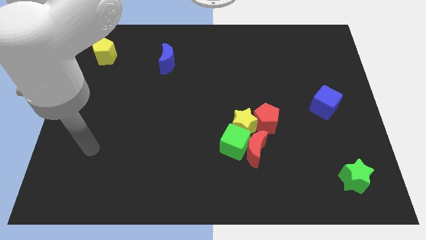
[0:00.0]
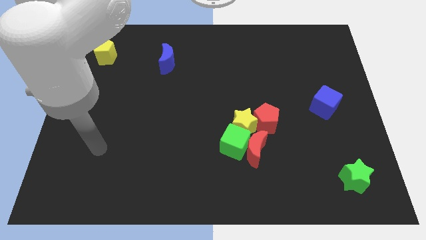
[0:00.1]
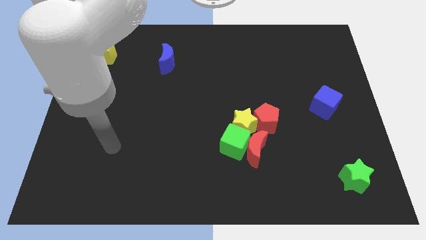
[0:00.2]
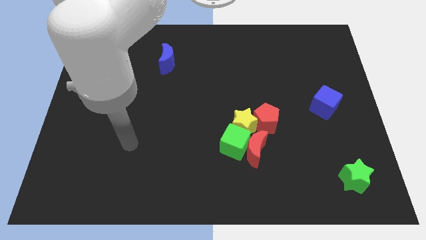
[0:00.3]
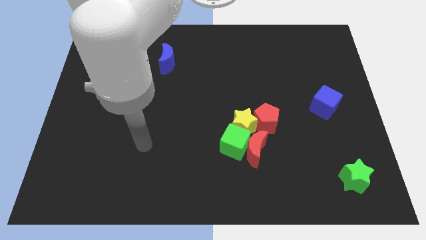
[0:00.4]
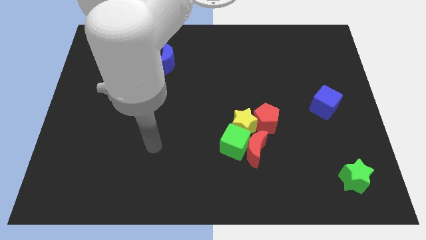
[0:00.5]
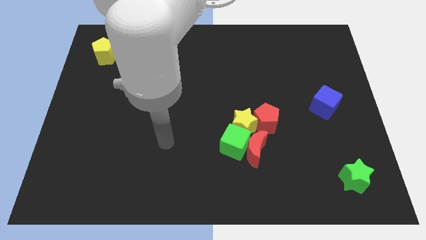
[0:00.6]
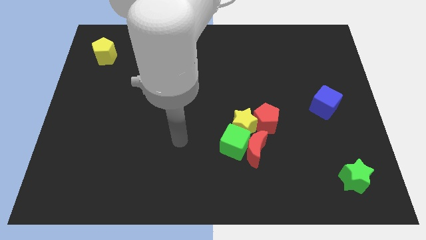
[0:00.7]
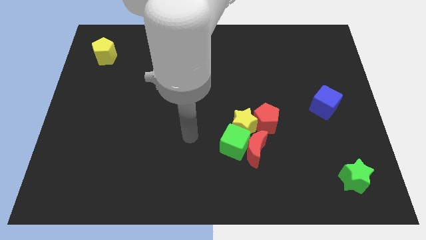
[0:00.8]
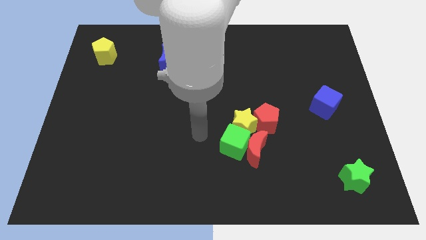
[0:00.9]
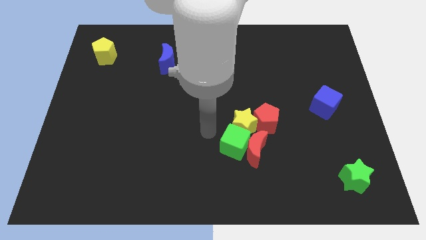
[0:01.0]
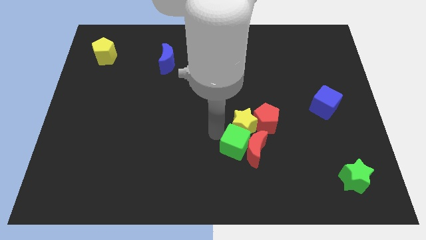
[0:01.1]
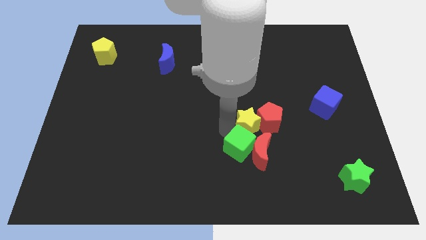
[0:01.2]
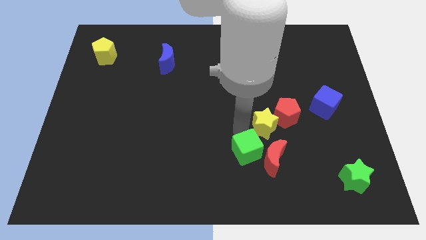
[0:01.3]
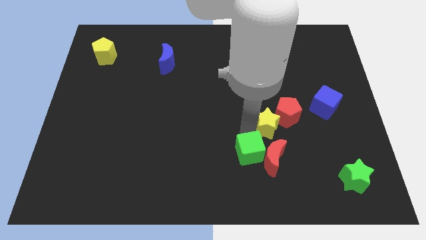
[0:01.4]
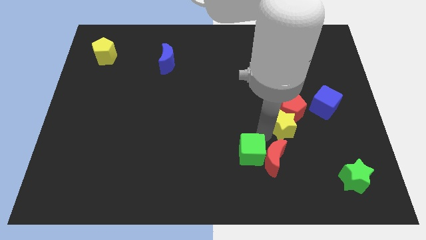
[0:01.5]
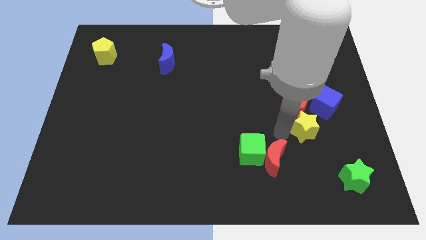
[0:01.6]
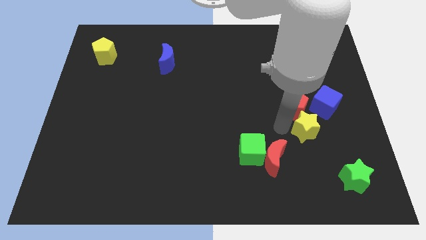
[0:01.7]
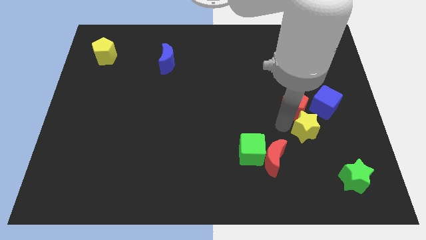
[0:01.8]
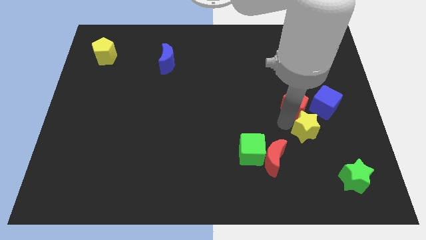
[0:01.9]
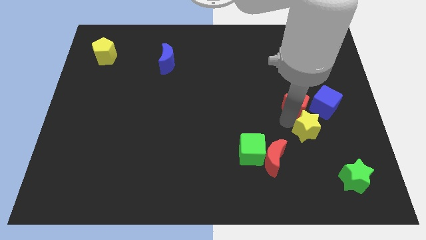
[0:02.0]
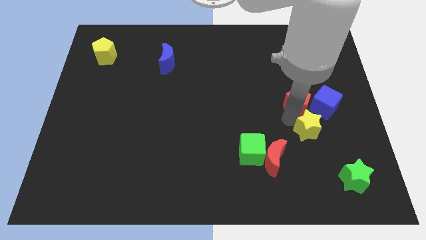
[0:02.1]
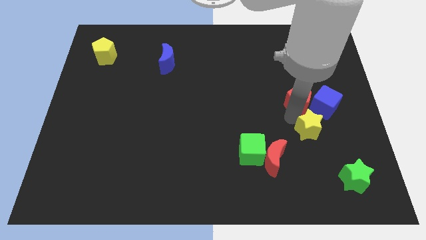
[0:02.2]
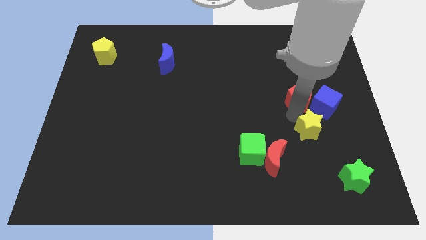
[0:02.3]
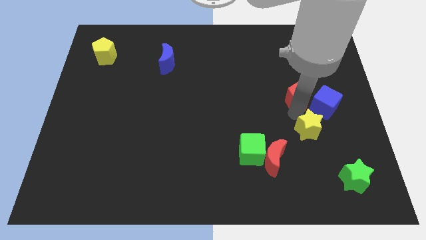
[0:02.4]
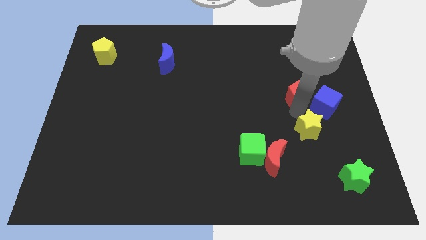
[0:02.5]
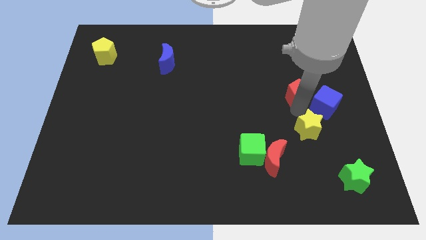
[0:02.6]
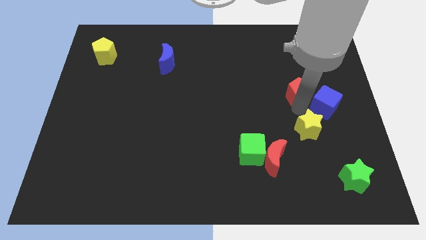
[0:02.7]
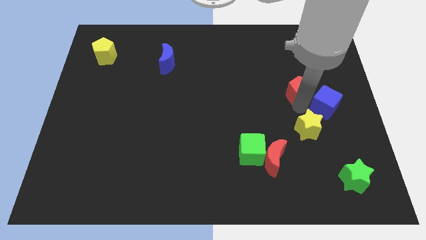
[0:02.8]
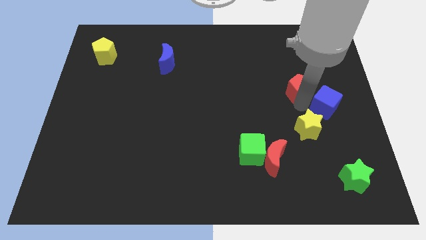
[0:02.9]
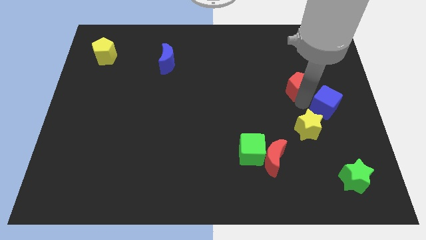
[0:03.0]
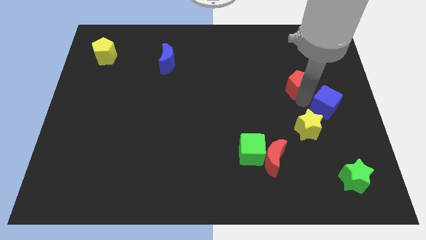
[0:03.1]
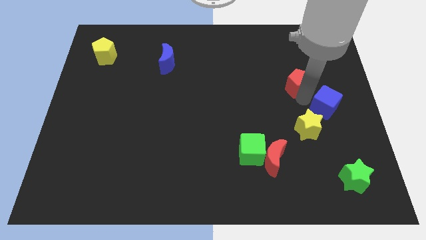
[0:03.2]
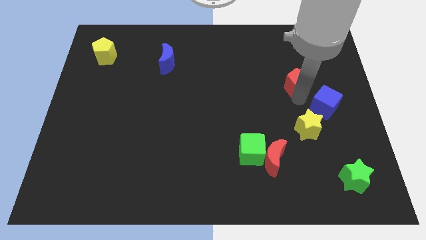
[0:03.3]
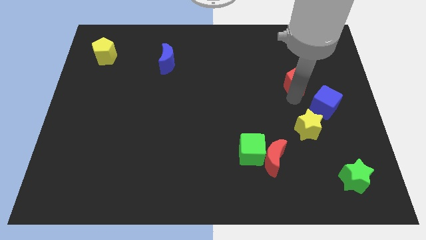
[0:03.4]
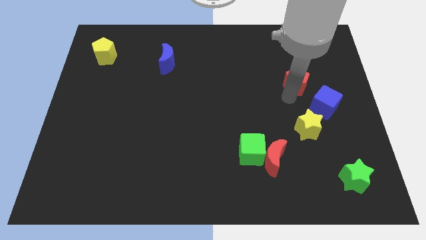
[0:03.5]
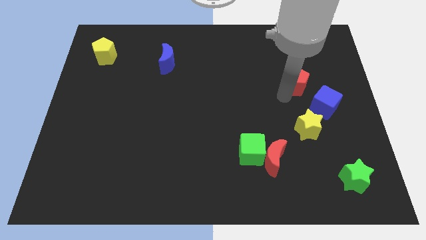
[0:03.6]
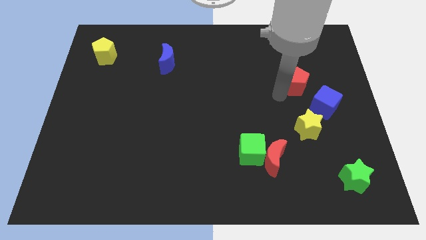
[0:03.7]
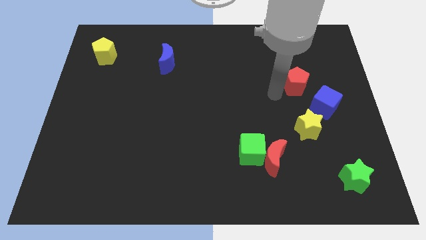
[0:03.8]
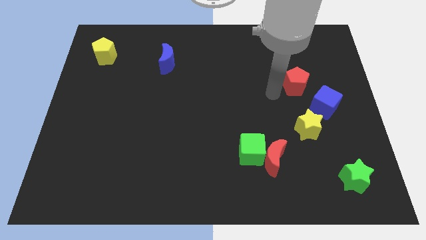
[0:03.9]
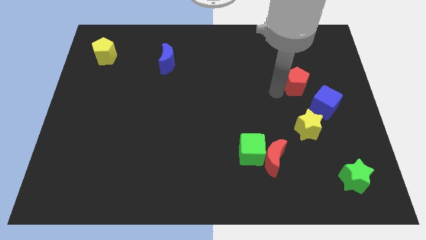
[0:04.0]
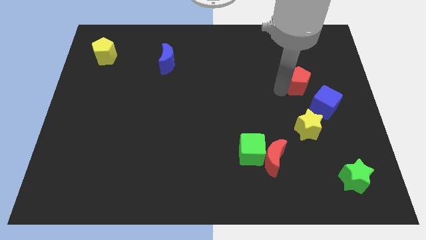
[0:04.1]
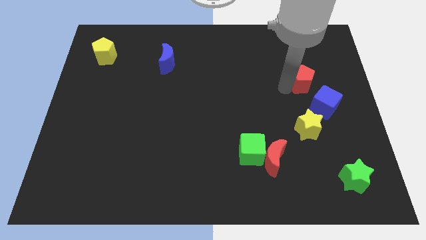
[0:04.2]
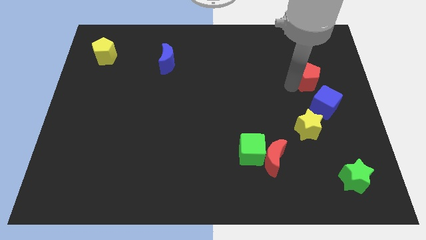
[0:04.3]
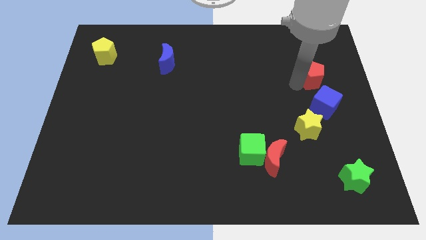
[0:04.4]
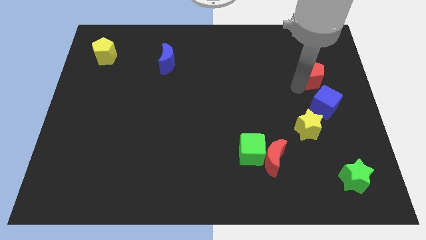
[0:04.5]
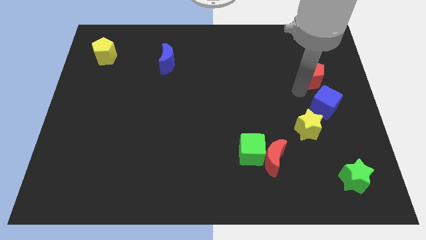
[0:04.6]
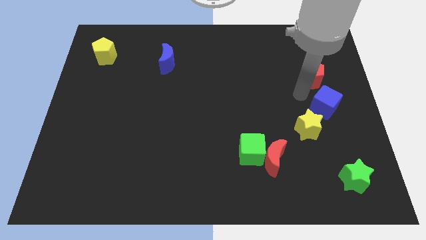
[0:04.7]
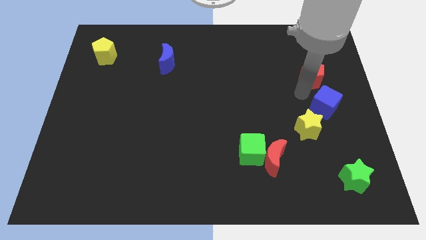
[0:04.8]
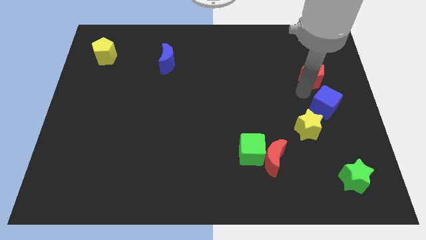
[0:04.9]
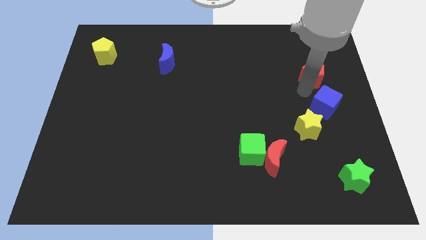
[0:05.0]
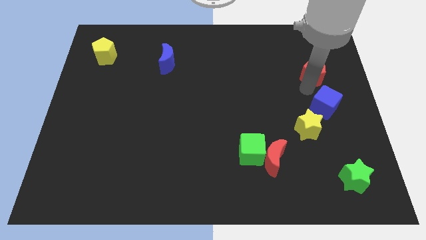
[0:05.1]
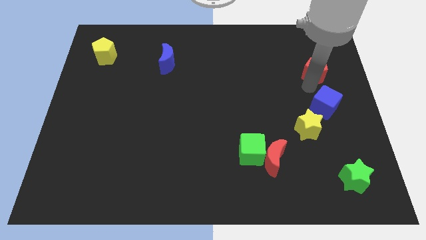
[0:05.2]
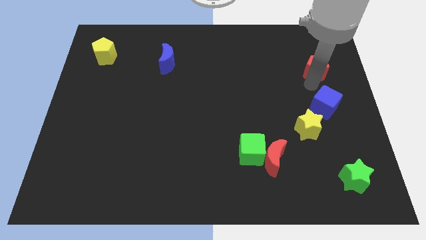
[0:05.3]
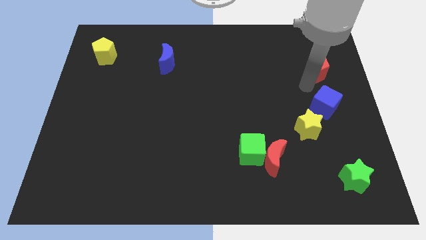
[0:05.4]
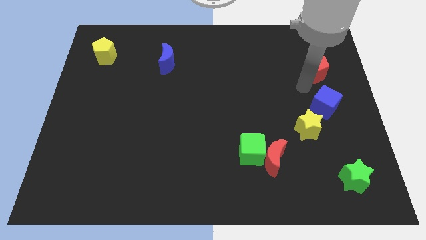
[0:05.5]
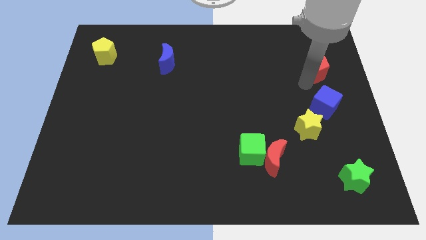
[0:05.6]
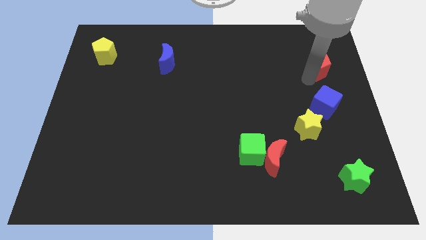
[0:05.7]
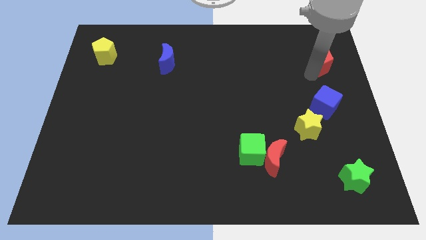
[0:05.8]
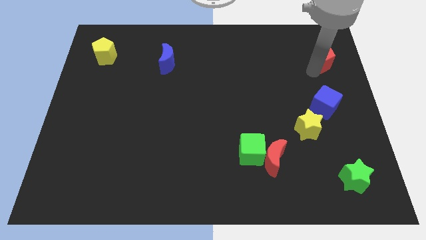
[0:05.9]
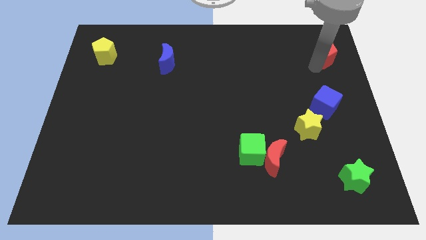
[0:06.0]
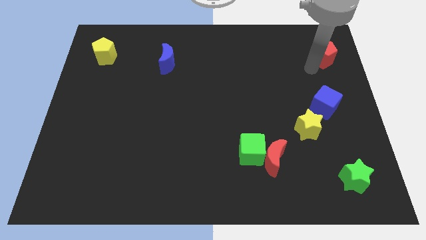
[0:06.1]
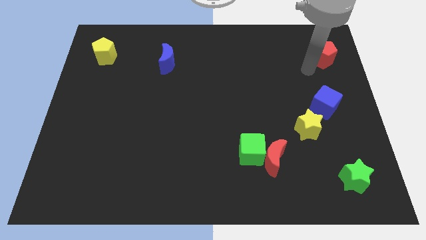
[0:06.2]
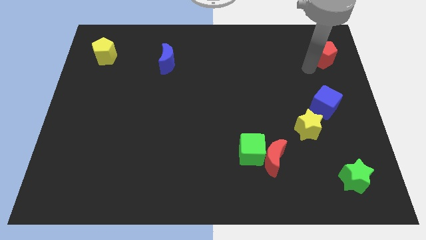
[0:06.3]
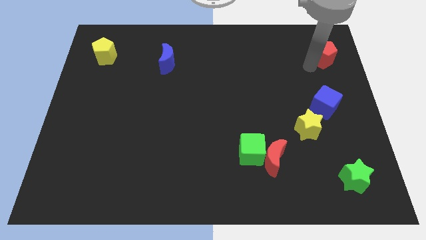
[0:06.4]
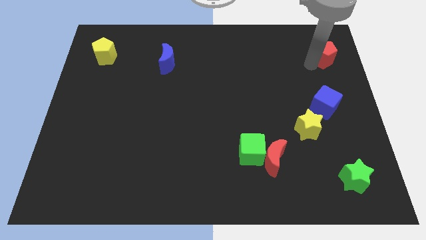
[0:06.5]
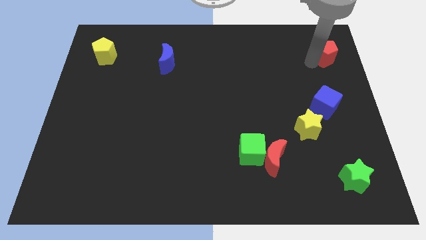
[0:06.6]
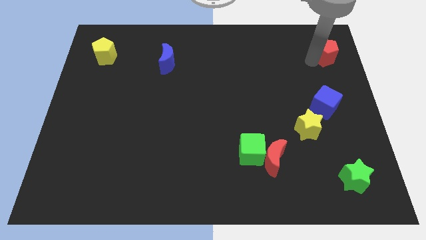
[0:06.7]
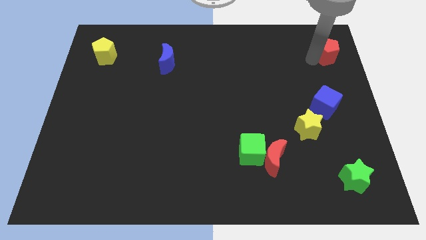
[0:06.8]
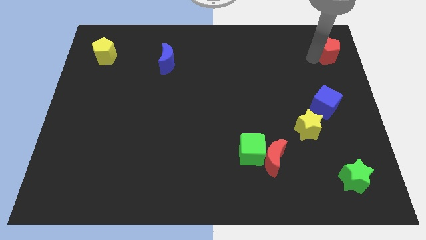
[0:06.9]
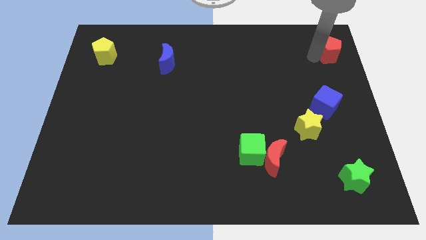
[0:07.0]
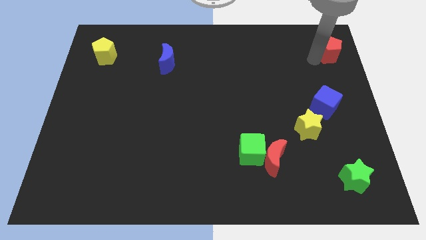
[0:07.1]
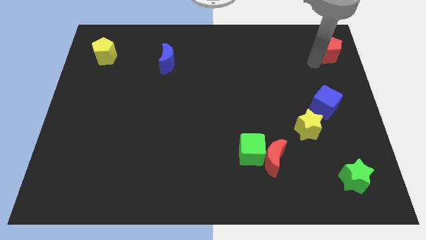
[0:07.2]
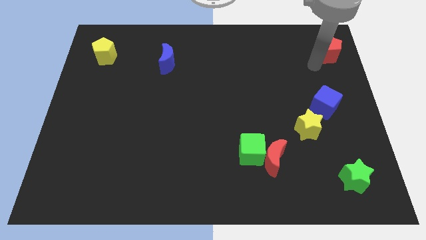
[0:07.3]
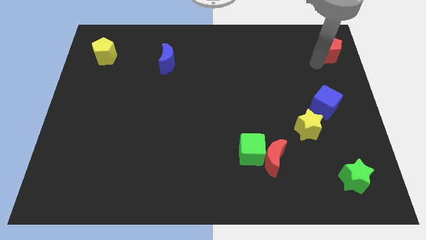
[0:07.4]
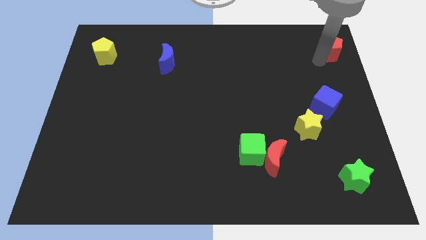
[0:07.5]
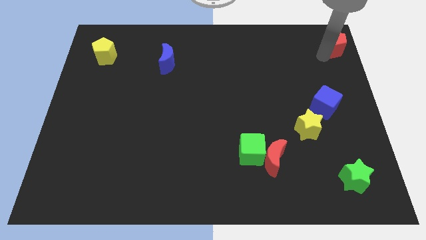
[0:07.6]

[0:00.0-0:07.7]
push the red pentagon to the top right
